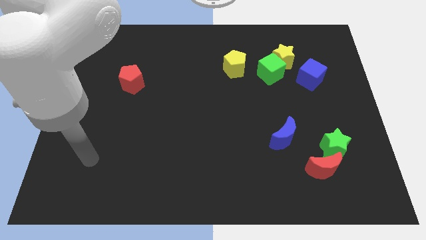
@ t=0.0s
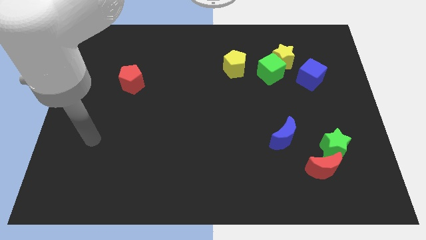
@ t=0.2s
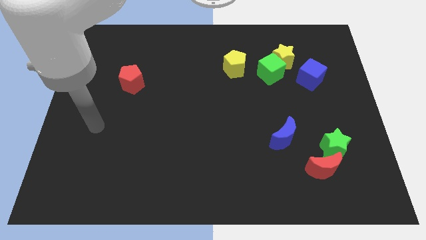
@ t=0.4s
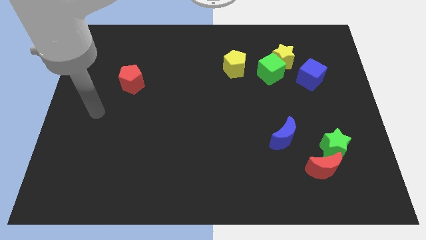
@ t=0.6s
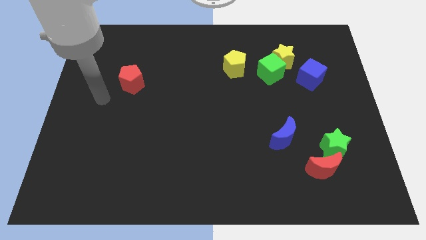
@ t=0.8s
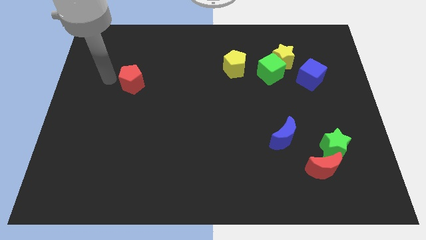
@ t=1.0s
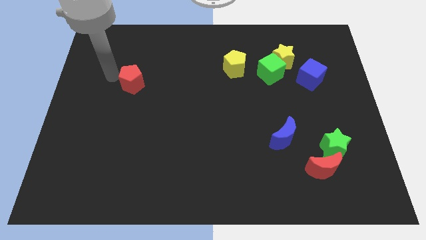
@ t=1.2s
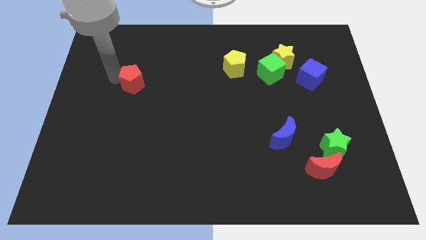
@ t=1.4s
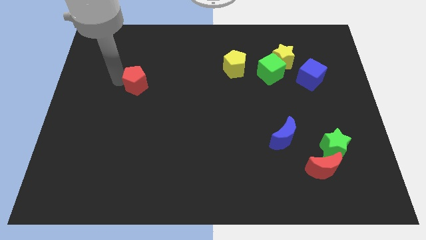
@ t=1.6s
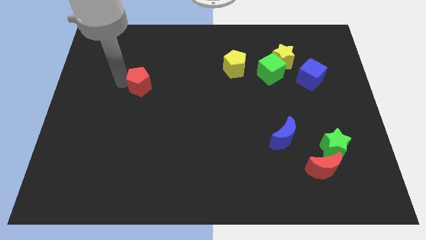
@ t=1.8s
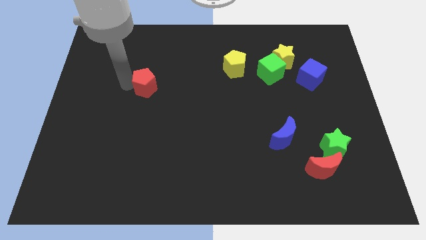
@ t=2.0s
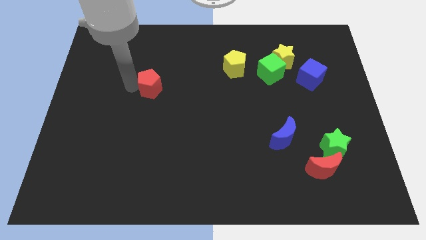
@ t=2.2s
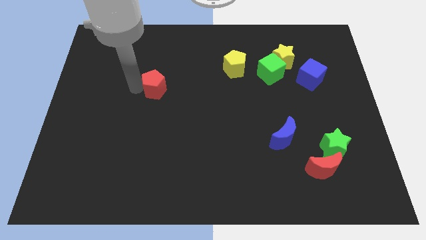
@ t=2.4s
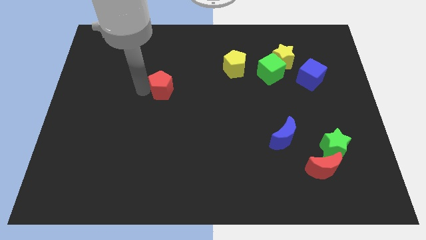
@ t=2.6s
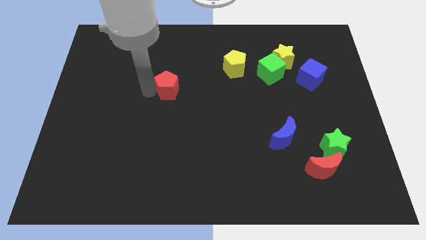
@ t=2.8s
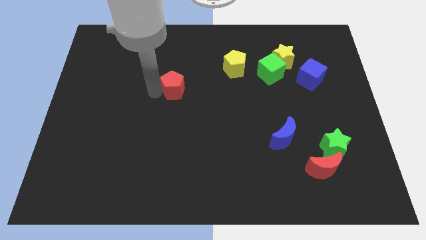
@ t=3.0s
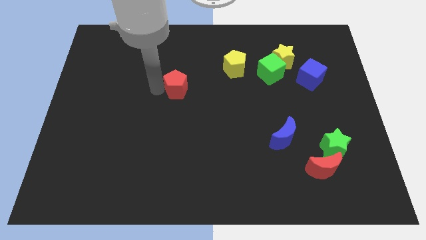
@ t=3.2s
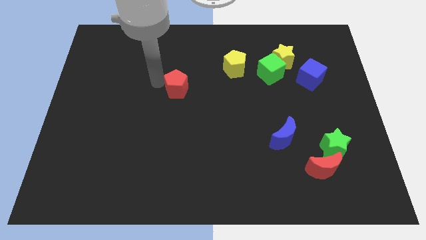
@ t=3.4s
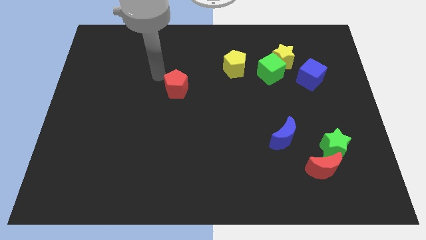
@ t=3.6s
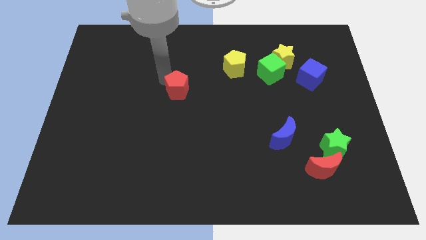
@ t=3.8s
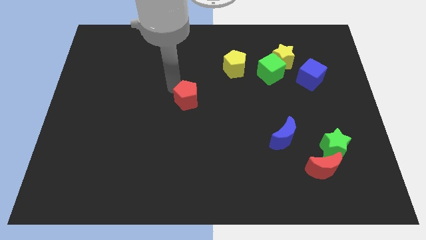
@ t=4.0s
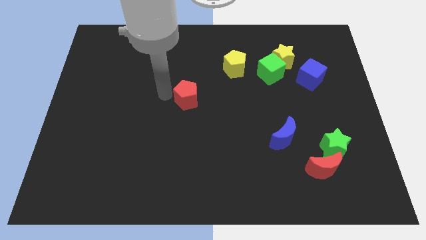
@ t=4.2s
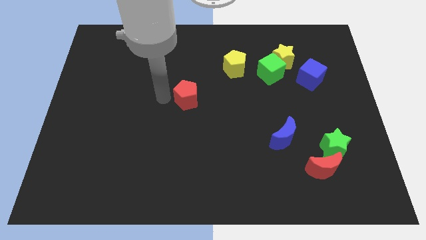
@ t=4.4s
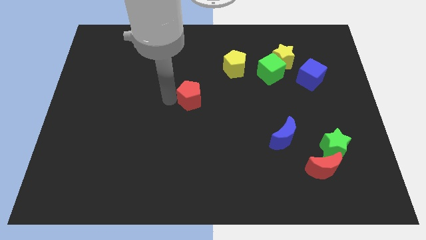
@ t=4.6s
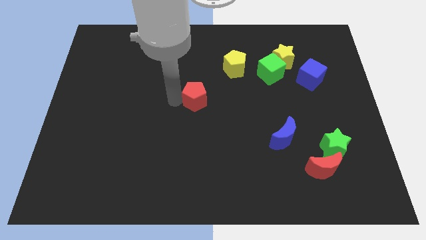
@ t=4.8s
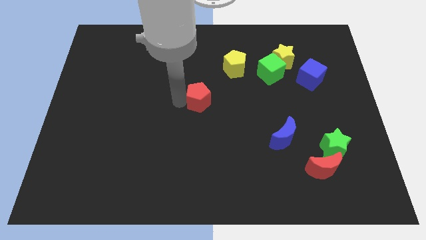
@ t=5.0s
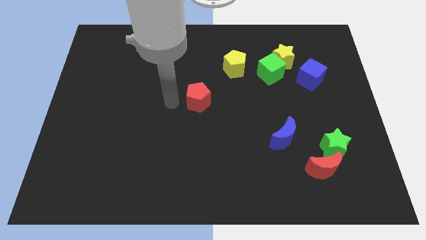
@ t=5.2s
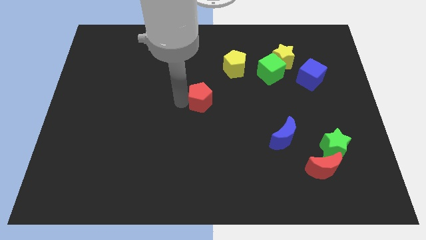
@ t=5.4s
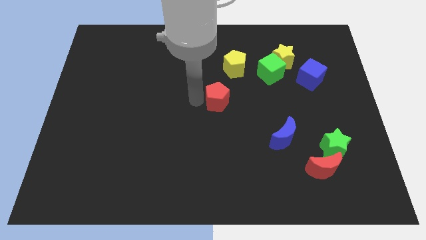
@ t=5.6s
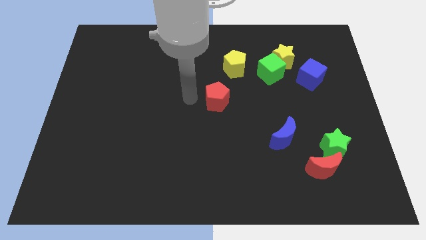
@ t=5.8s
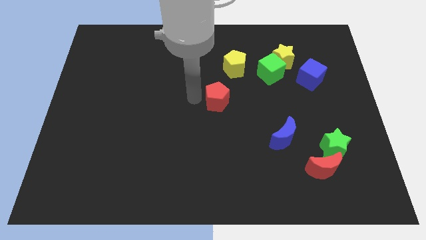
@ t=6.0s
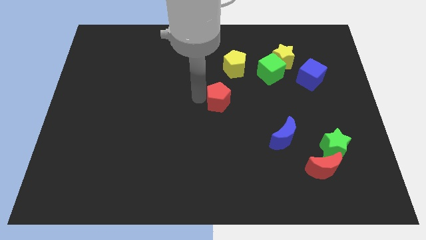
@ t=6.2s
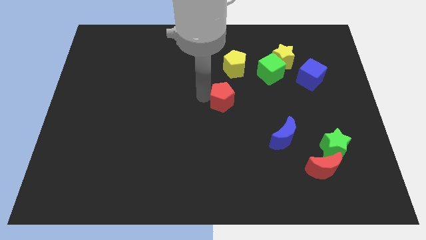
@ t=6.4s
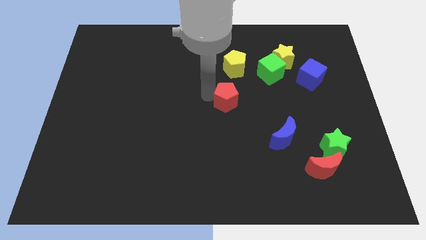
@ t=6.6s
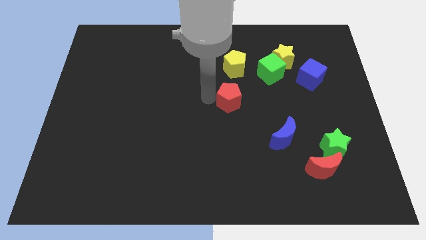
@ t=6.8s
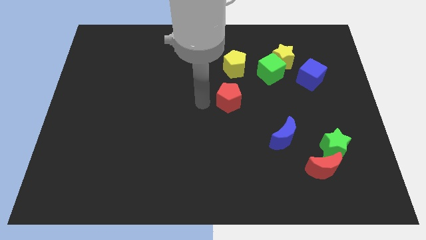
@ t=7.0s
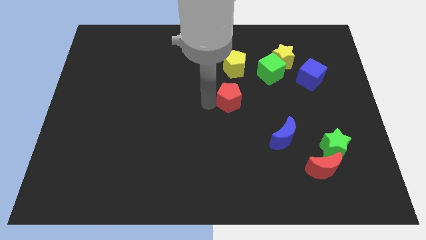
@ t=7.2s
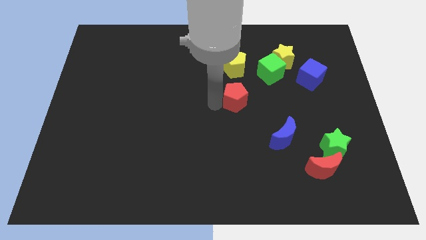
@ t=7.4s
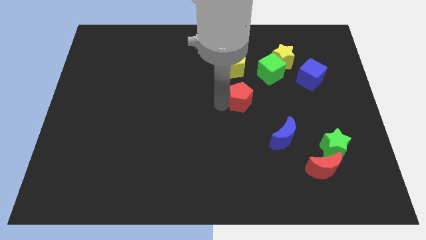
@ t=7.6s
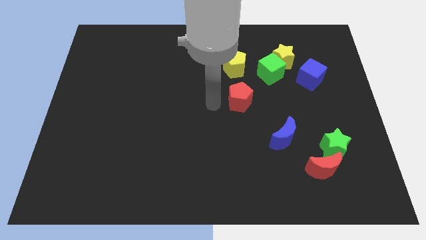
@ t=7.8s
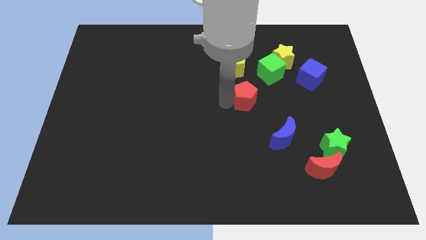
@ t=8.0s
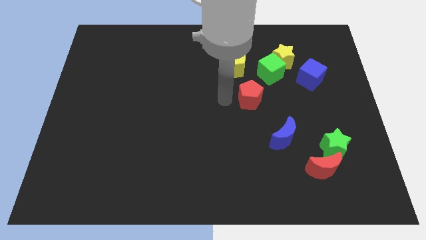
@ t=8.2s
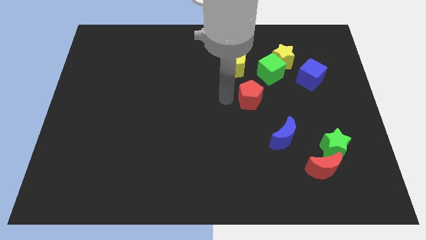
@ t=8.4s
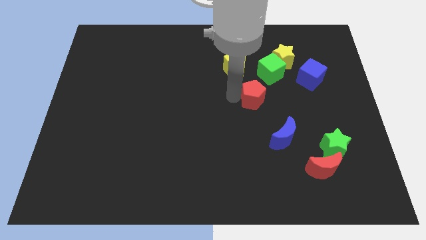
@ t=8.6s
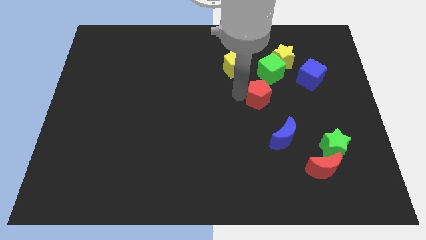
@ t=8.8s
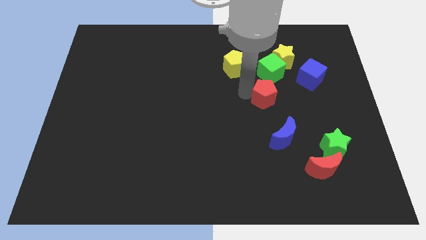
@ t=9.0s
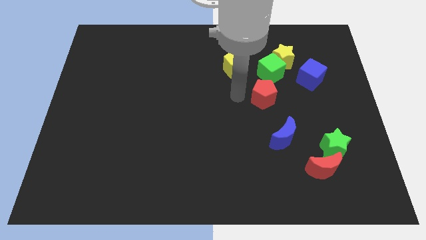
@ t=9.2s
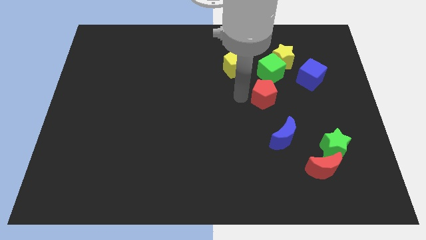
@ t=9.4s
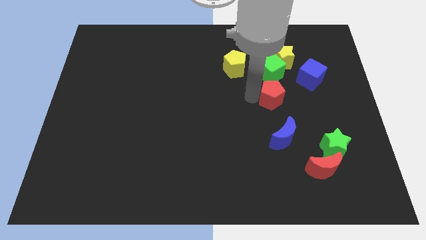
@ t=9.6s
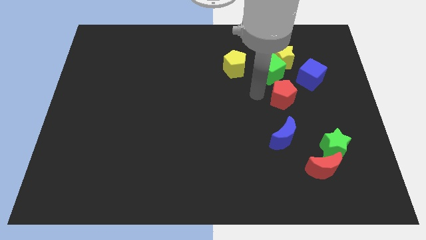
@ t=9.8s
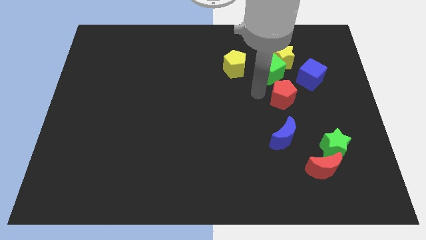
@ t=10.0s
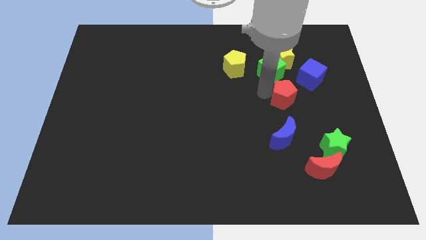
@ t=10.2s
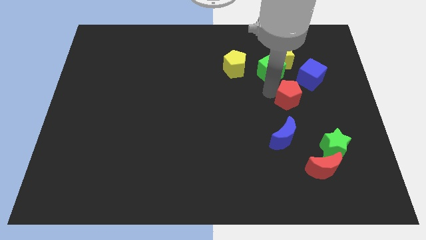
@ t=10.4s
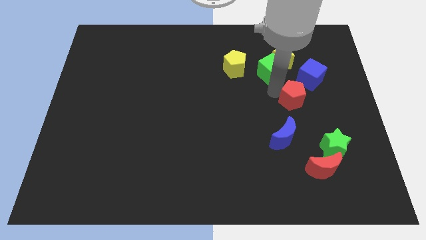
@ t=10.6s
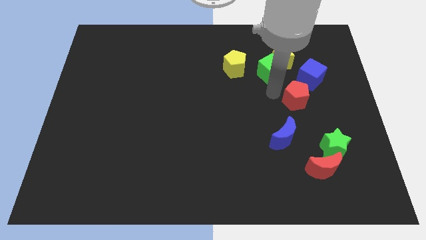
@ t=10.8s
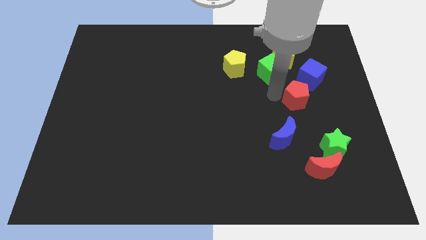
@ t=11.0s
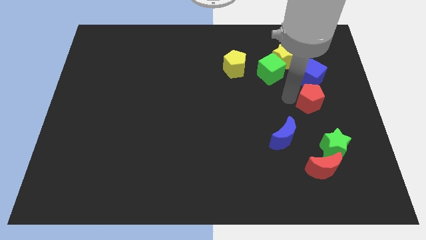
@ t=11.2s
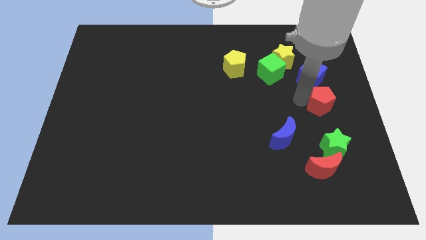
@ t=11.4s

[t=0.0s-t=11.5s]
push the red pentagon to the center right

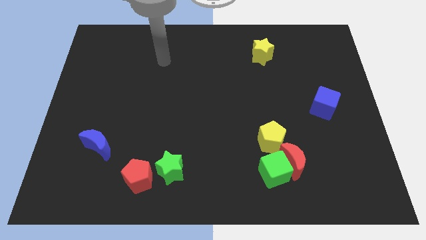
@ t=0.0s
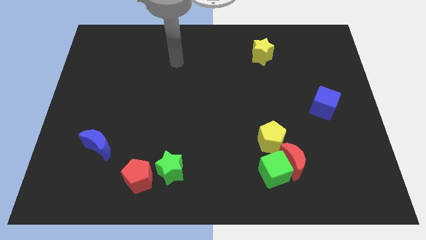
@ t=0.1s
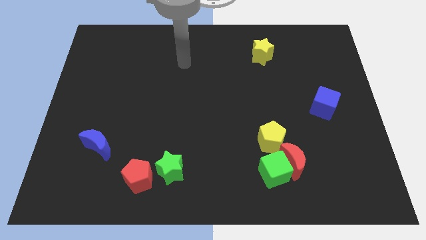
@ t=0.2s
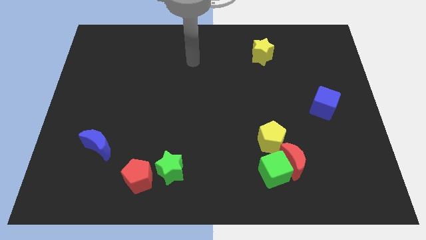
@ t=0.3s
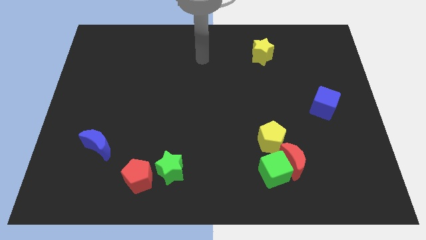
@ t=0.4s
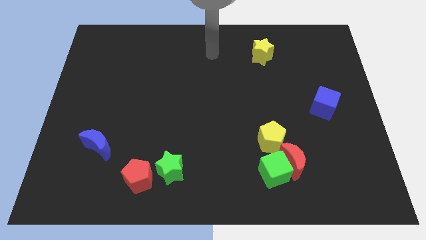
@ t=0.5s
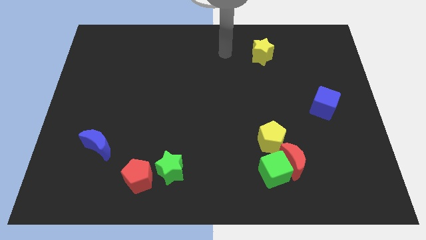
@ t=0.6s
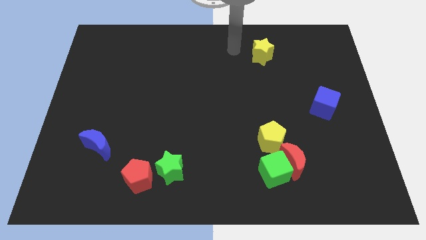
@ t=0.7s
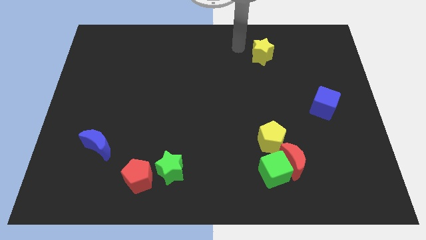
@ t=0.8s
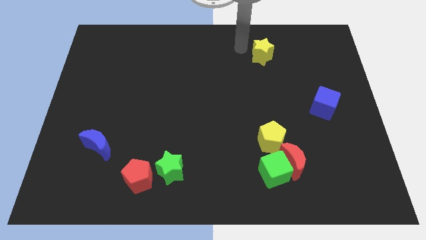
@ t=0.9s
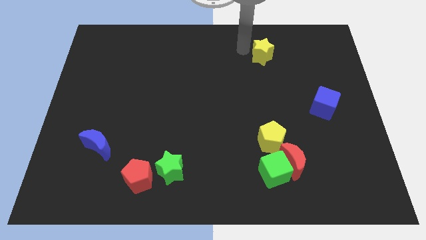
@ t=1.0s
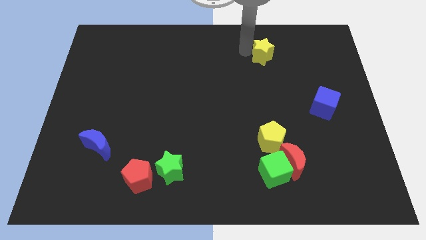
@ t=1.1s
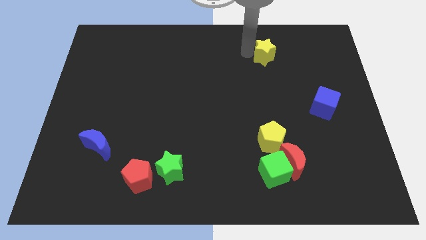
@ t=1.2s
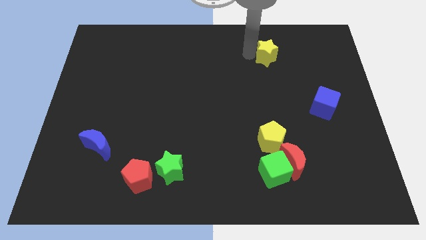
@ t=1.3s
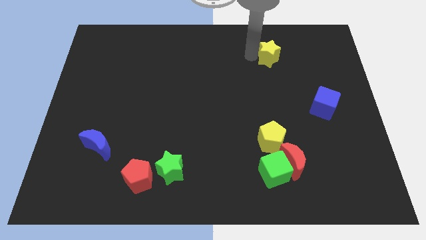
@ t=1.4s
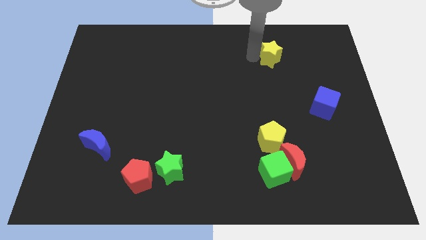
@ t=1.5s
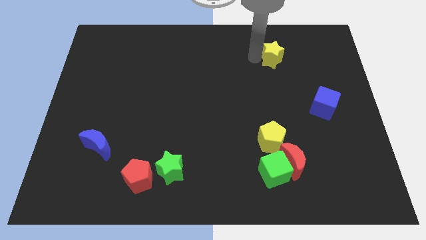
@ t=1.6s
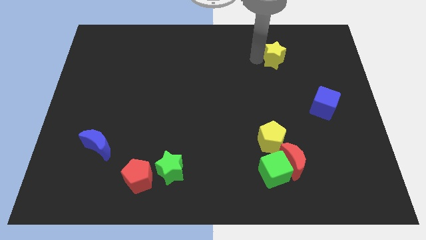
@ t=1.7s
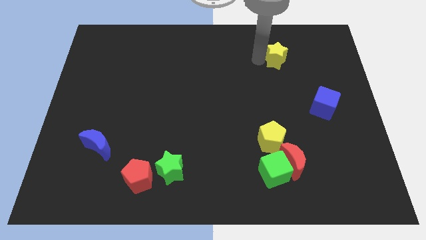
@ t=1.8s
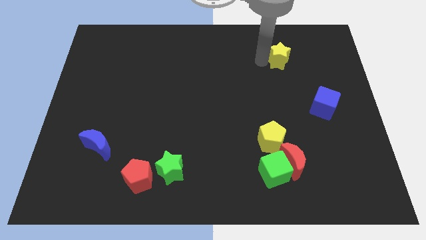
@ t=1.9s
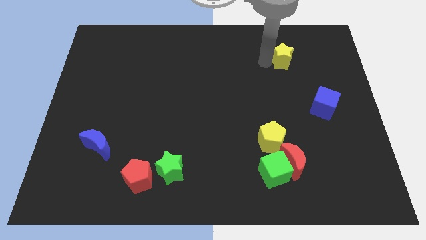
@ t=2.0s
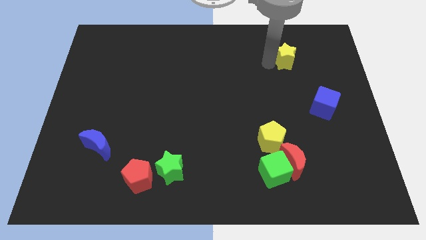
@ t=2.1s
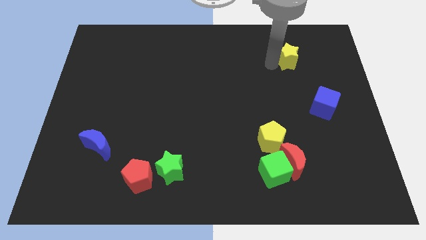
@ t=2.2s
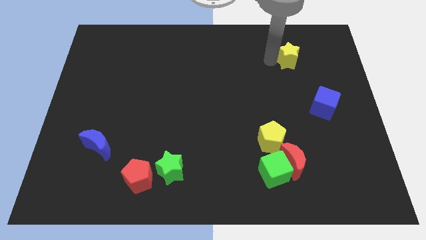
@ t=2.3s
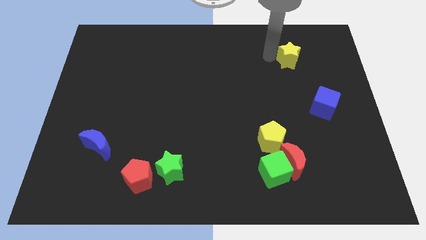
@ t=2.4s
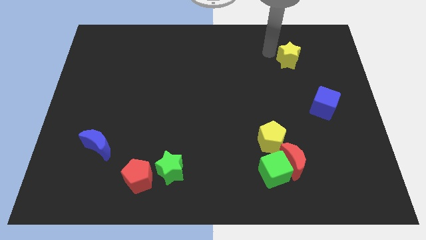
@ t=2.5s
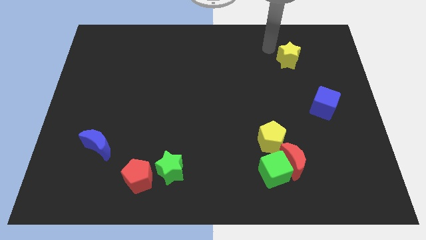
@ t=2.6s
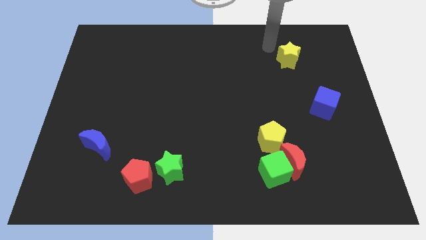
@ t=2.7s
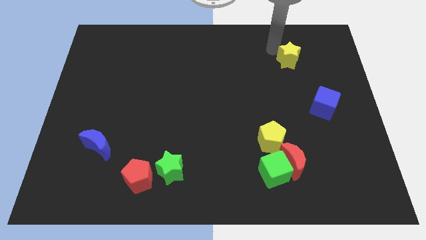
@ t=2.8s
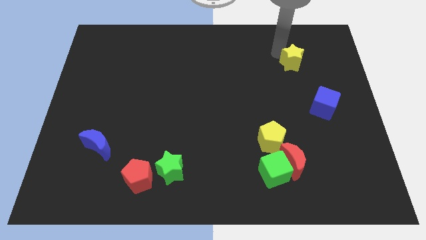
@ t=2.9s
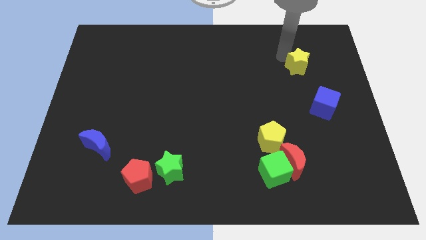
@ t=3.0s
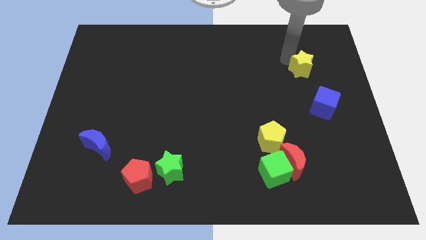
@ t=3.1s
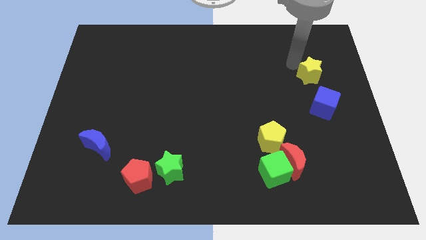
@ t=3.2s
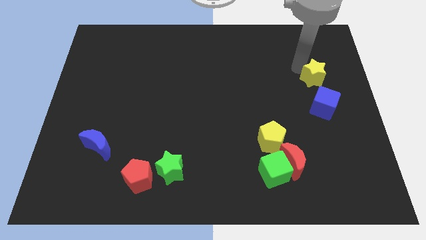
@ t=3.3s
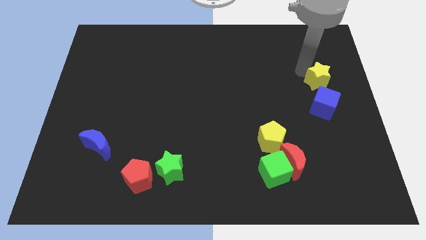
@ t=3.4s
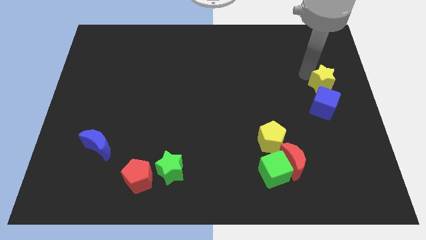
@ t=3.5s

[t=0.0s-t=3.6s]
slide the yellow star to the center right
